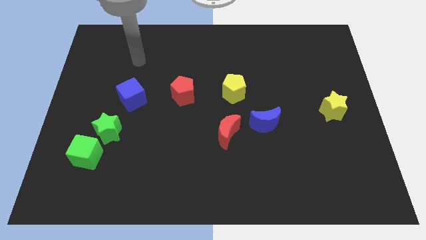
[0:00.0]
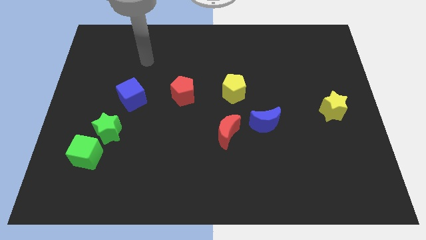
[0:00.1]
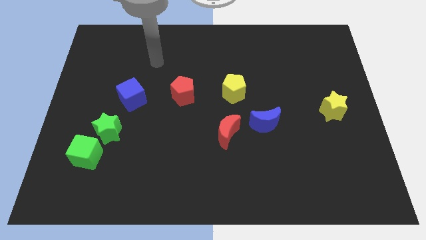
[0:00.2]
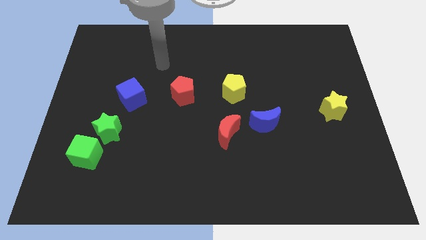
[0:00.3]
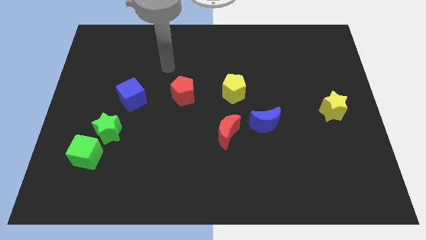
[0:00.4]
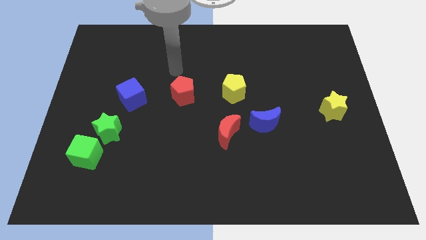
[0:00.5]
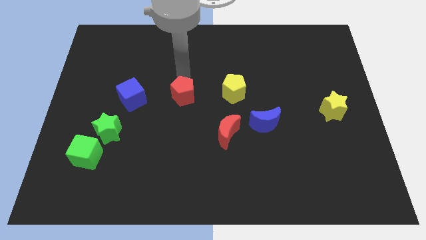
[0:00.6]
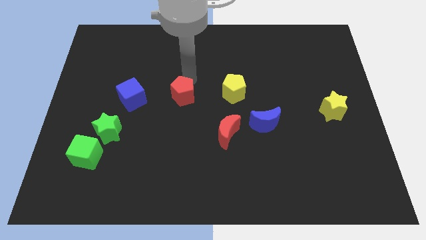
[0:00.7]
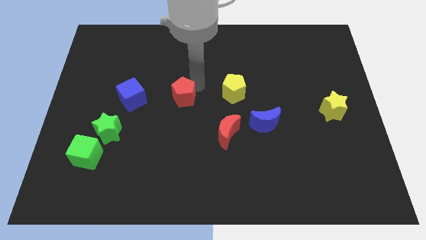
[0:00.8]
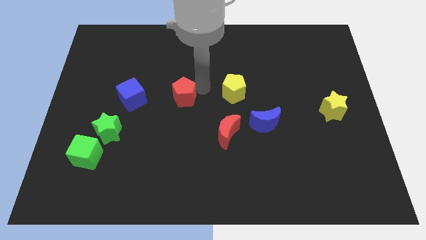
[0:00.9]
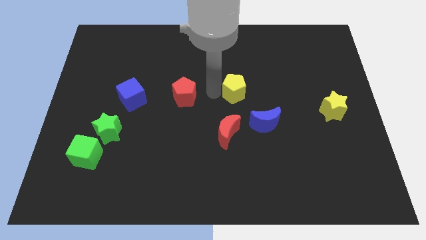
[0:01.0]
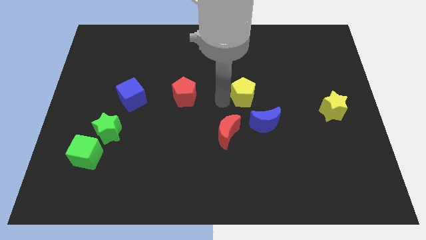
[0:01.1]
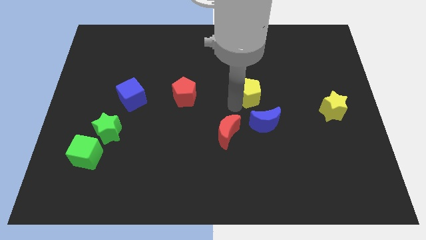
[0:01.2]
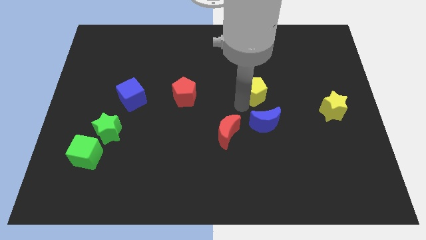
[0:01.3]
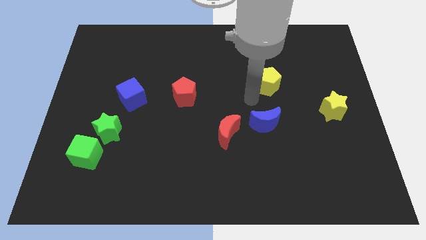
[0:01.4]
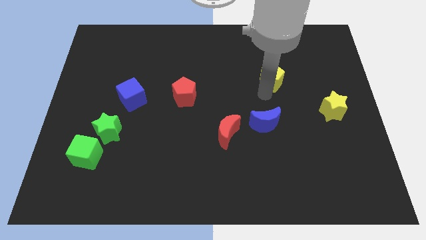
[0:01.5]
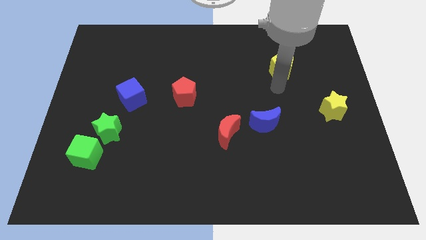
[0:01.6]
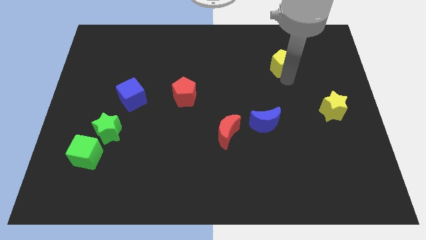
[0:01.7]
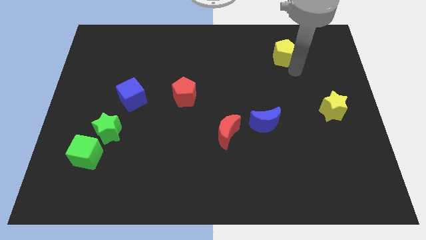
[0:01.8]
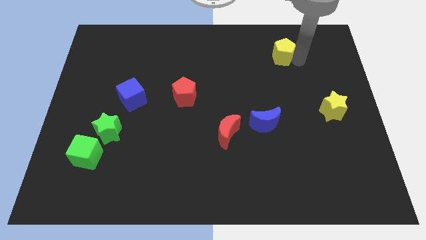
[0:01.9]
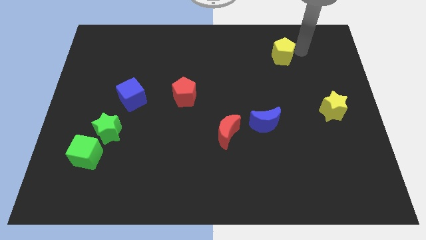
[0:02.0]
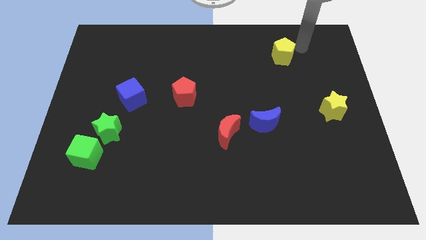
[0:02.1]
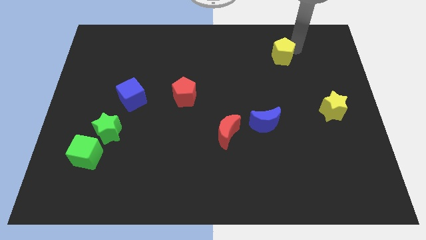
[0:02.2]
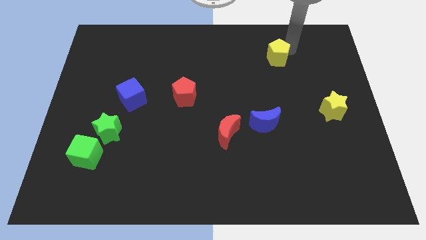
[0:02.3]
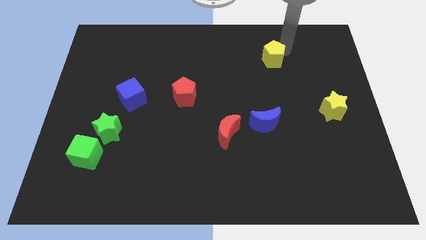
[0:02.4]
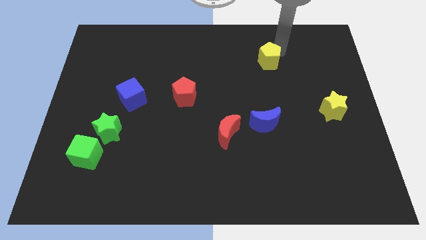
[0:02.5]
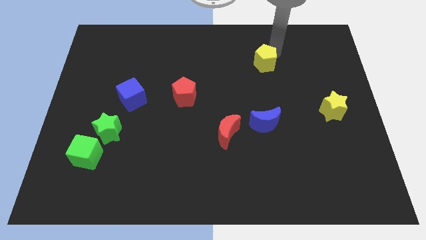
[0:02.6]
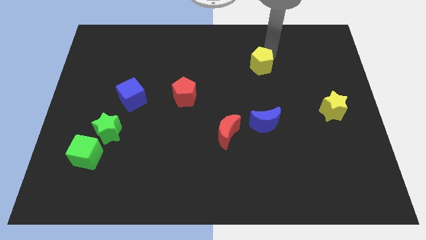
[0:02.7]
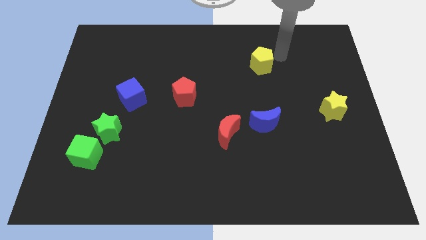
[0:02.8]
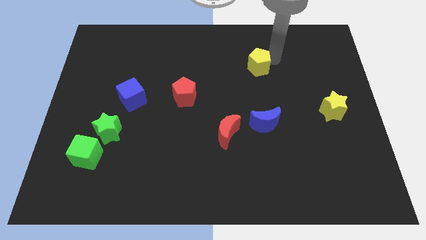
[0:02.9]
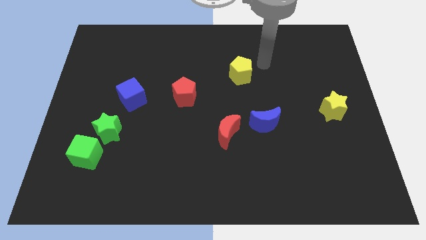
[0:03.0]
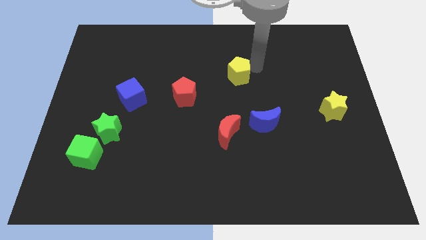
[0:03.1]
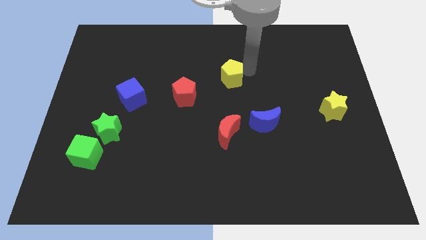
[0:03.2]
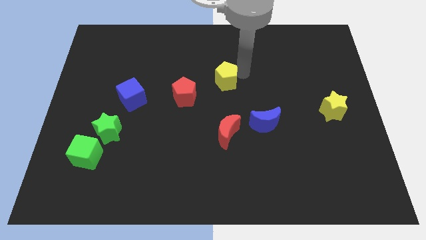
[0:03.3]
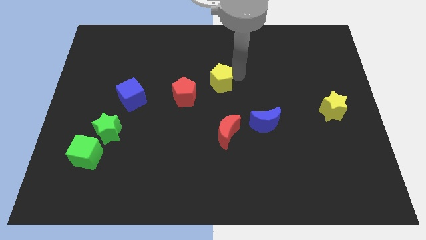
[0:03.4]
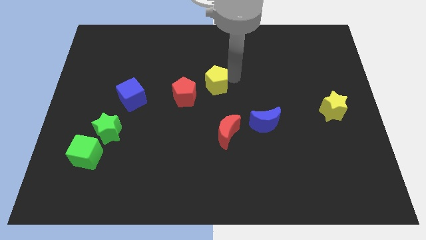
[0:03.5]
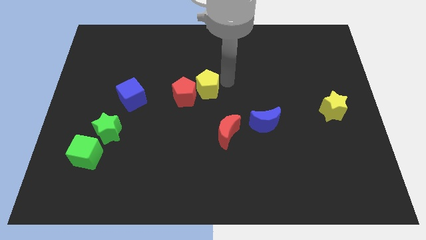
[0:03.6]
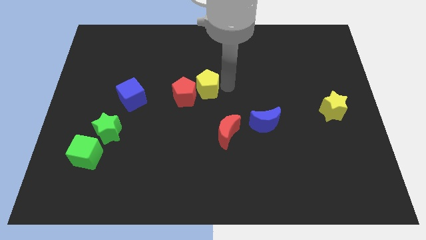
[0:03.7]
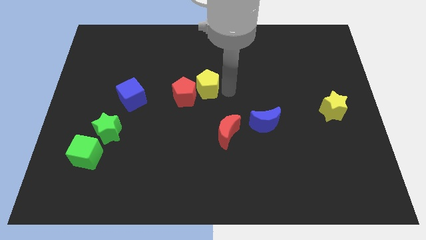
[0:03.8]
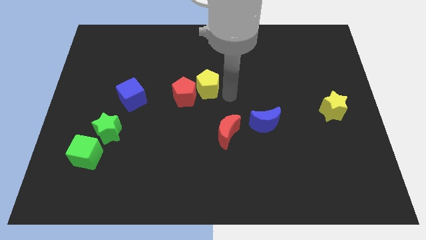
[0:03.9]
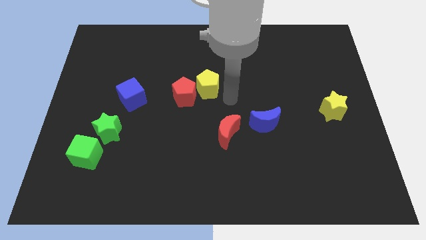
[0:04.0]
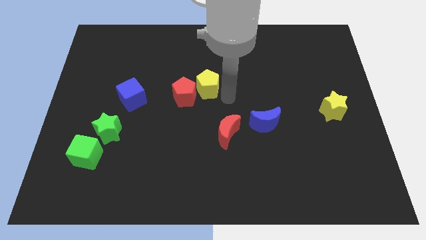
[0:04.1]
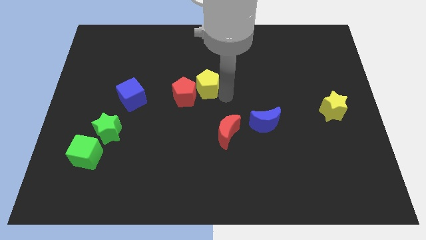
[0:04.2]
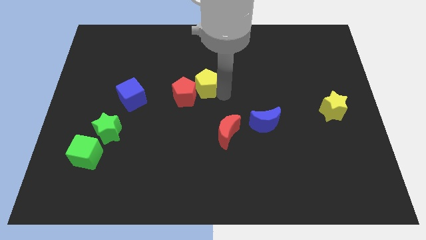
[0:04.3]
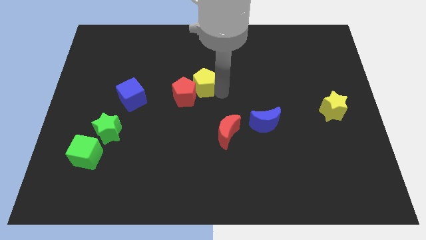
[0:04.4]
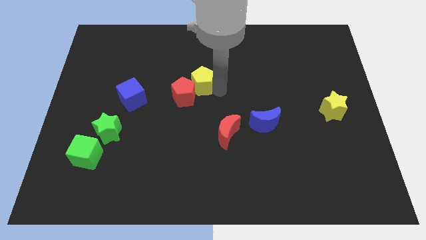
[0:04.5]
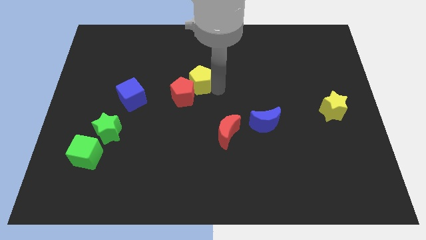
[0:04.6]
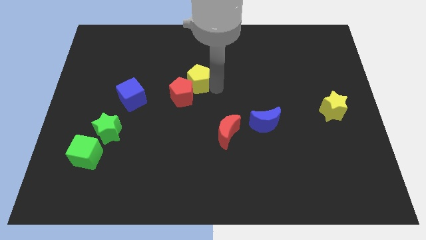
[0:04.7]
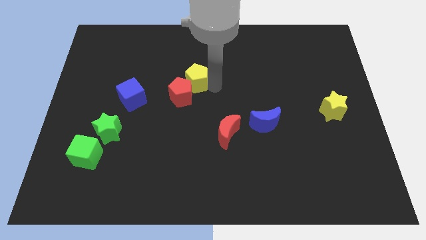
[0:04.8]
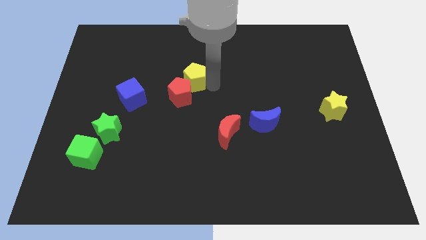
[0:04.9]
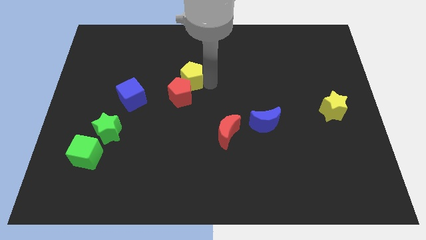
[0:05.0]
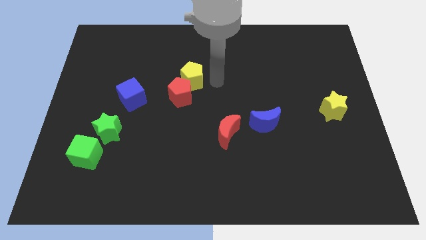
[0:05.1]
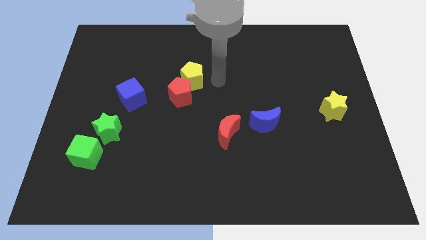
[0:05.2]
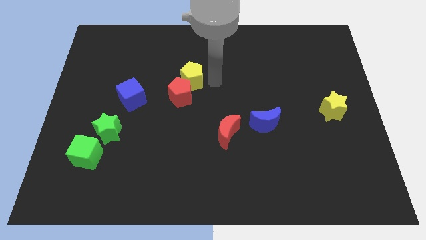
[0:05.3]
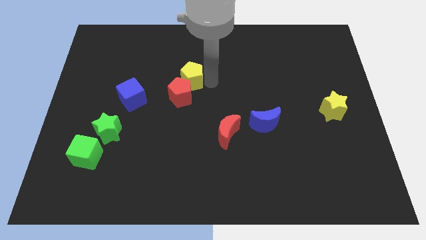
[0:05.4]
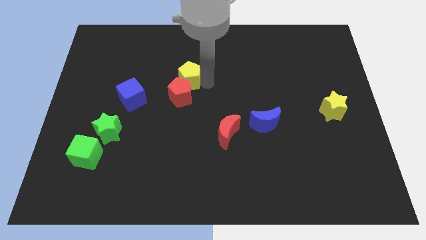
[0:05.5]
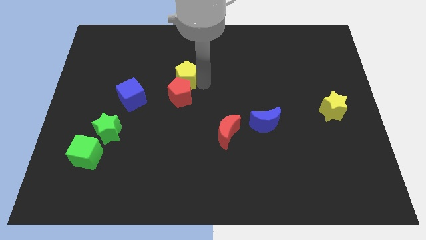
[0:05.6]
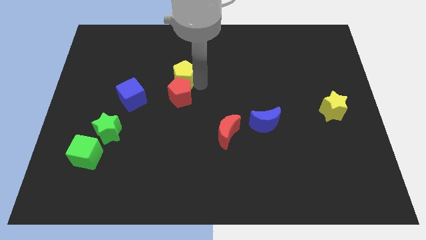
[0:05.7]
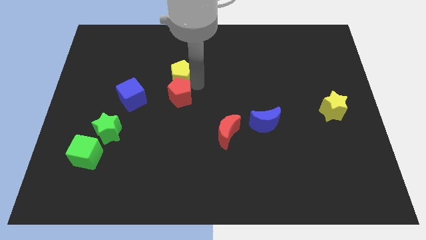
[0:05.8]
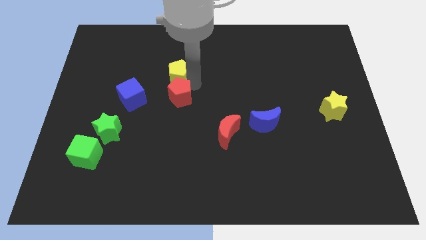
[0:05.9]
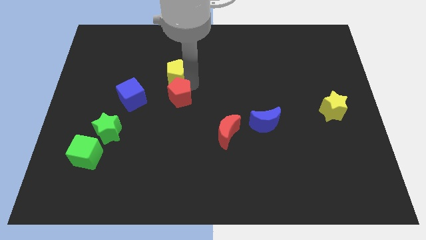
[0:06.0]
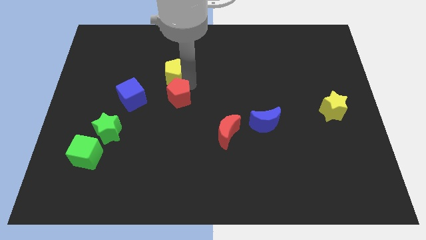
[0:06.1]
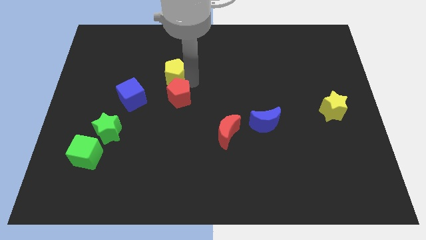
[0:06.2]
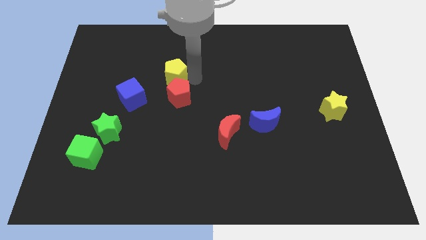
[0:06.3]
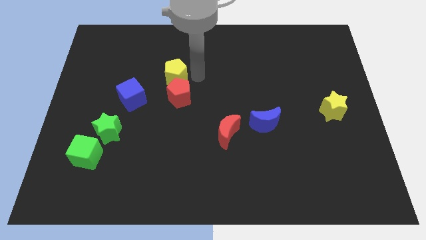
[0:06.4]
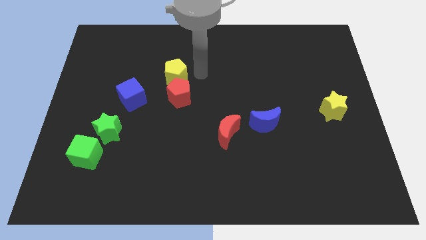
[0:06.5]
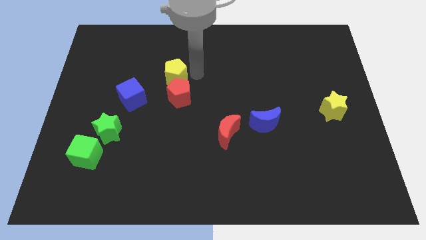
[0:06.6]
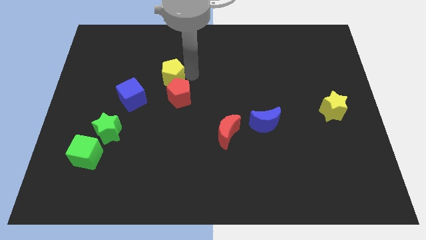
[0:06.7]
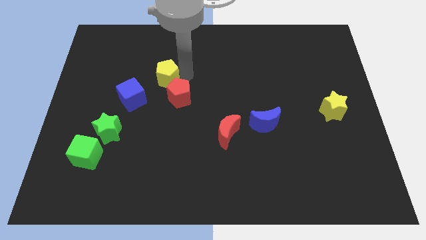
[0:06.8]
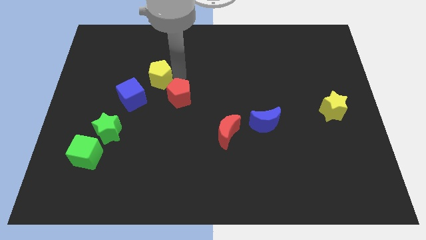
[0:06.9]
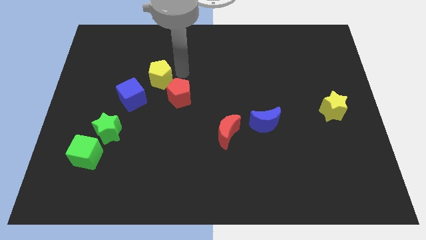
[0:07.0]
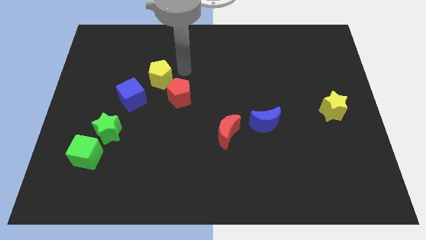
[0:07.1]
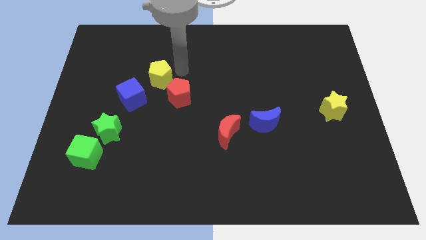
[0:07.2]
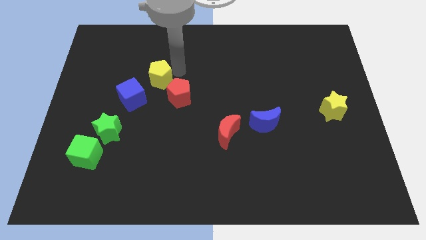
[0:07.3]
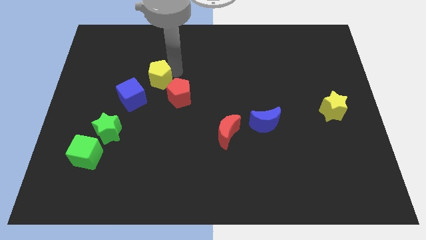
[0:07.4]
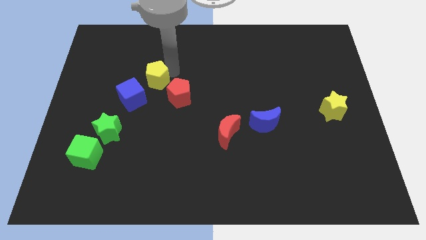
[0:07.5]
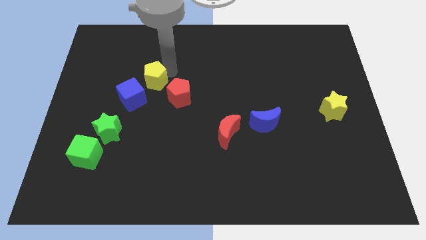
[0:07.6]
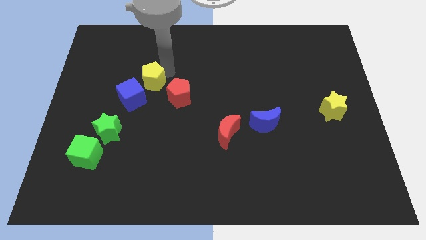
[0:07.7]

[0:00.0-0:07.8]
move the yellow pentagon to the left

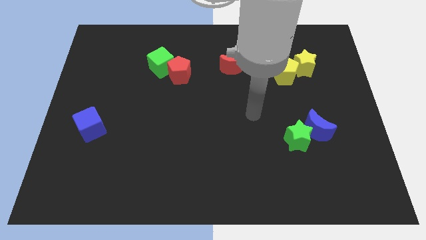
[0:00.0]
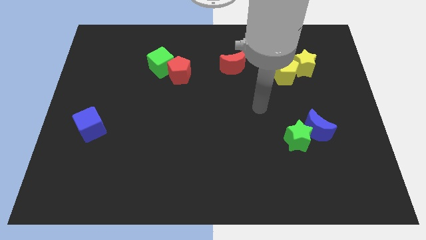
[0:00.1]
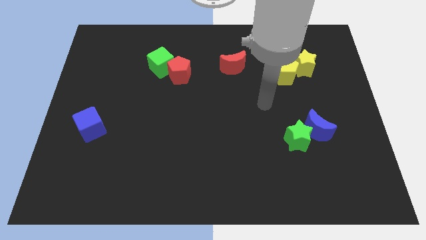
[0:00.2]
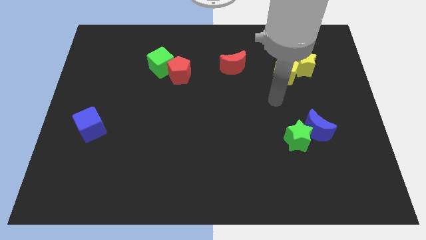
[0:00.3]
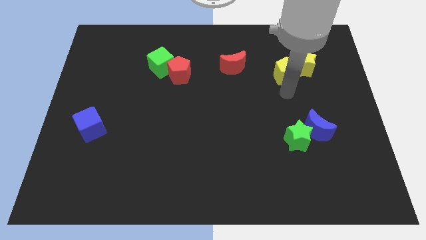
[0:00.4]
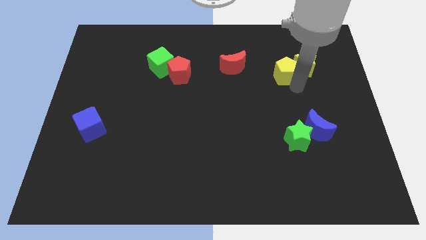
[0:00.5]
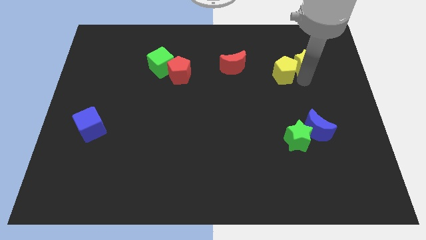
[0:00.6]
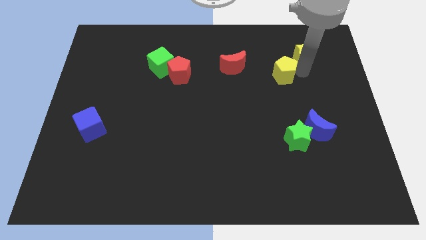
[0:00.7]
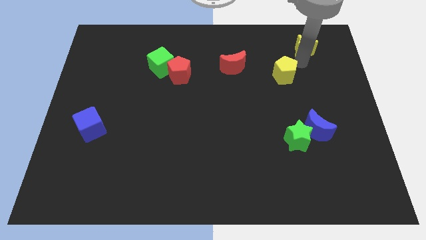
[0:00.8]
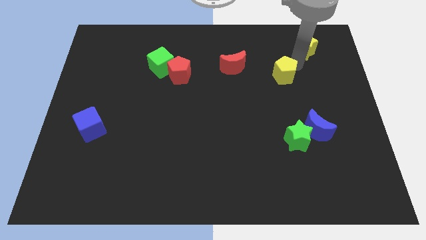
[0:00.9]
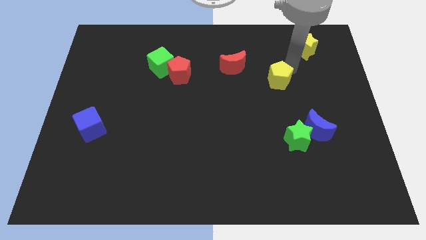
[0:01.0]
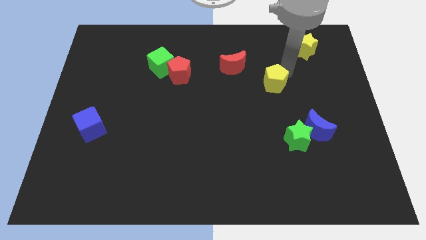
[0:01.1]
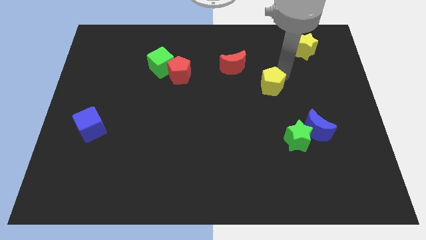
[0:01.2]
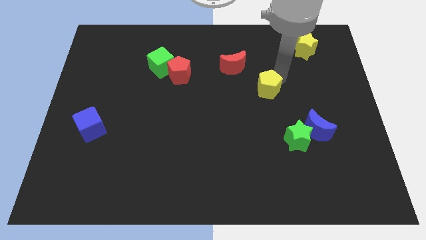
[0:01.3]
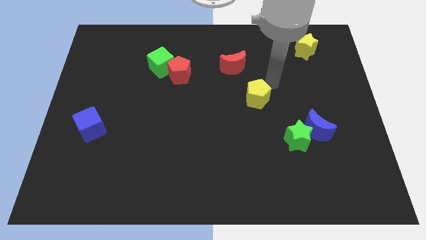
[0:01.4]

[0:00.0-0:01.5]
slide the yellow pentagon diagonally downwards and left a little bit
